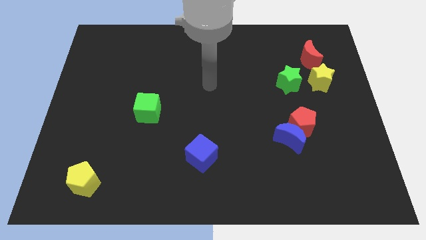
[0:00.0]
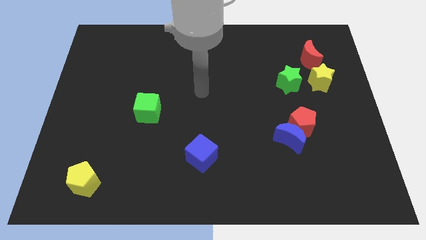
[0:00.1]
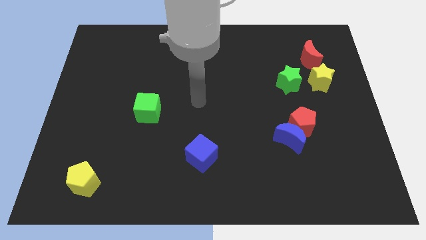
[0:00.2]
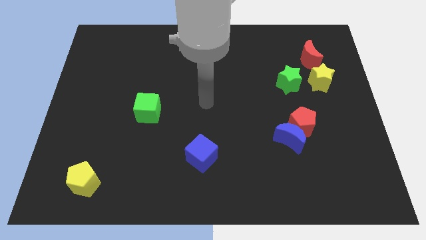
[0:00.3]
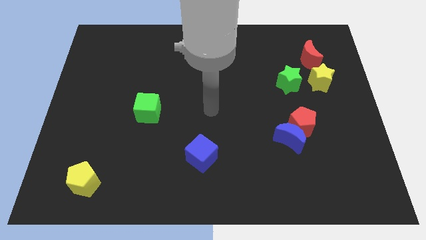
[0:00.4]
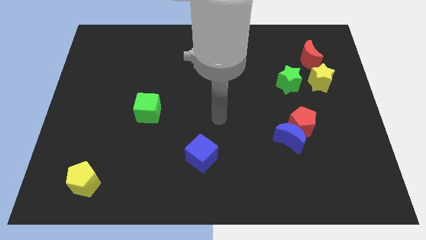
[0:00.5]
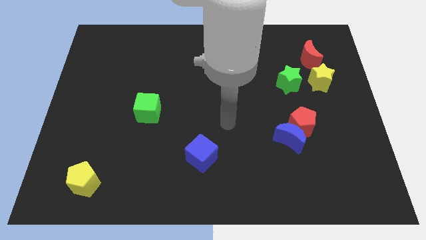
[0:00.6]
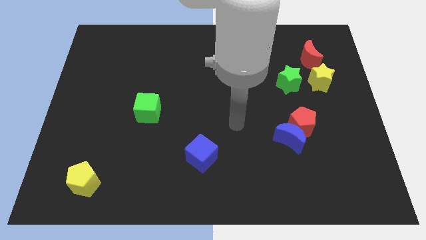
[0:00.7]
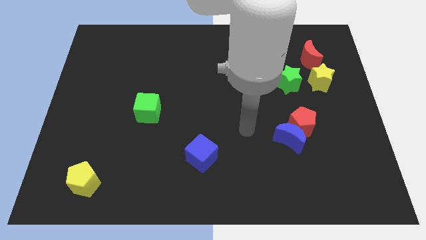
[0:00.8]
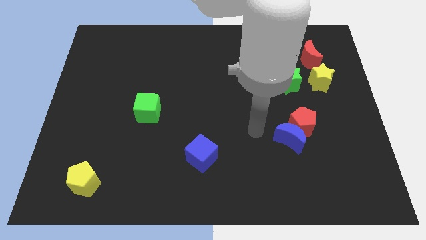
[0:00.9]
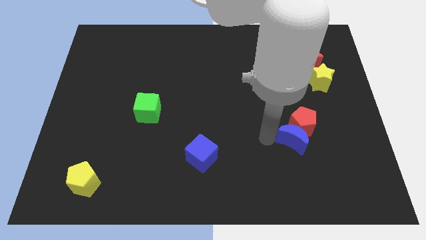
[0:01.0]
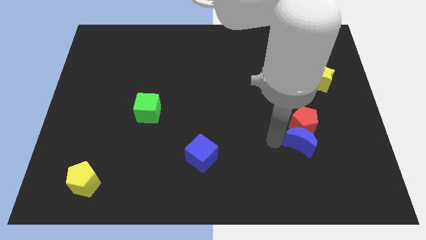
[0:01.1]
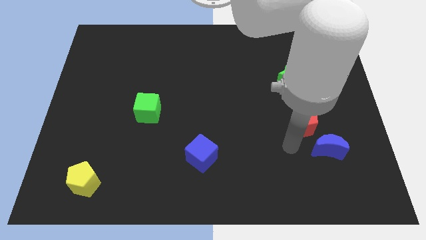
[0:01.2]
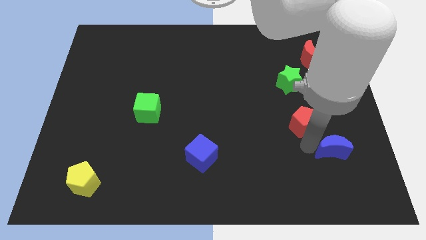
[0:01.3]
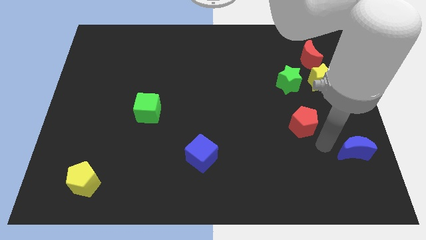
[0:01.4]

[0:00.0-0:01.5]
pull the red pentagon apart from the blue moon

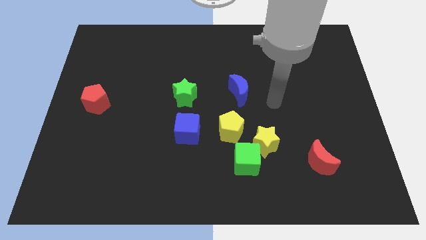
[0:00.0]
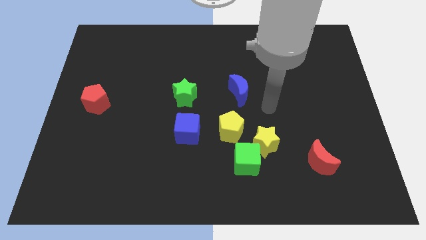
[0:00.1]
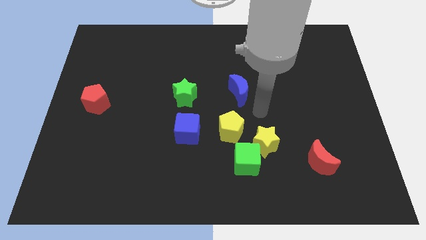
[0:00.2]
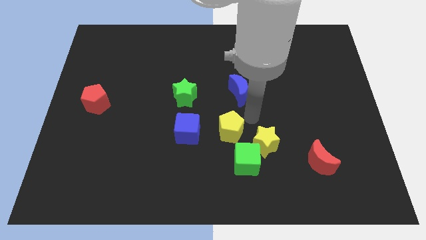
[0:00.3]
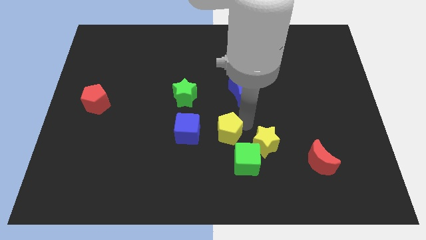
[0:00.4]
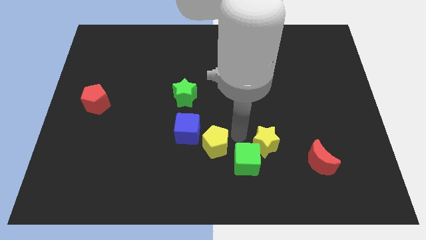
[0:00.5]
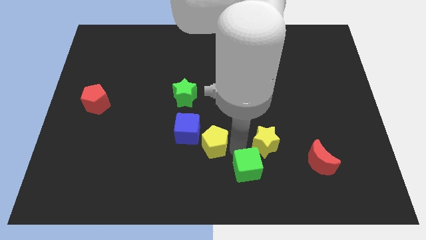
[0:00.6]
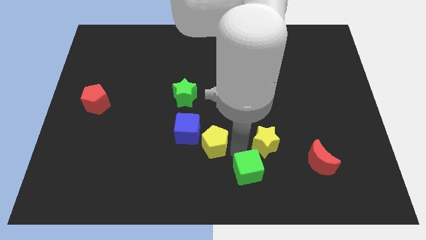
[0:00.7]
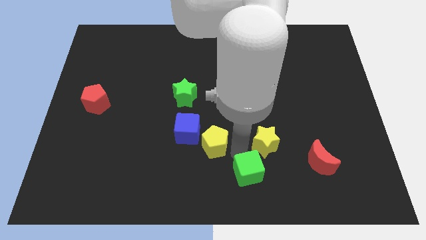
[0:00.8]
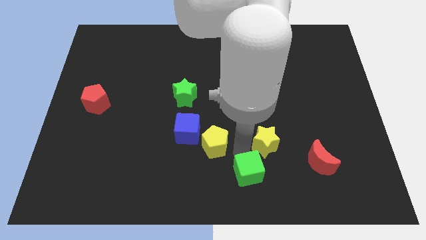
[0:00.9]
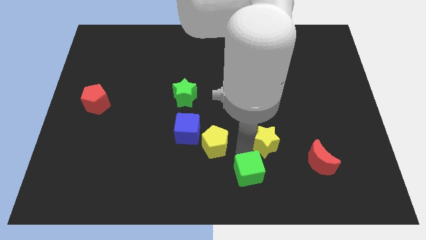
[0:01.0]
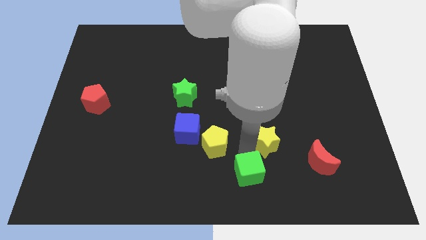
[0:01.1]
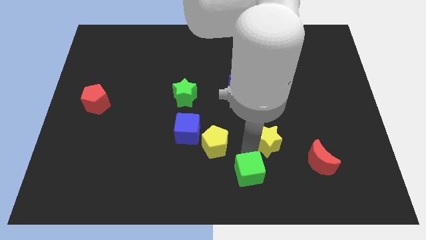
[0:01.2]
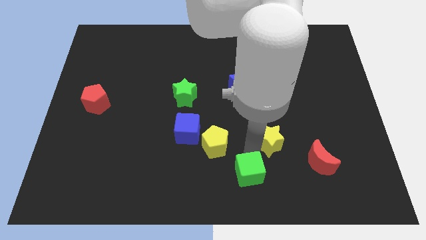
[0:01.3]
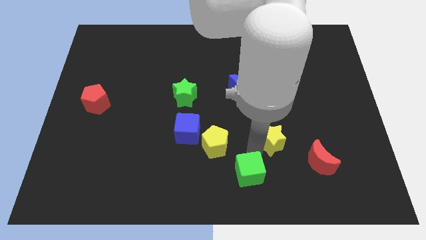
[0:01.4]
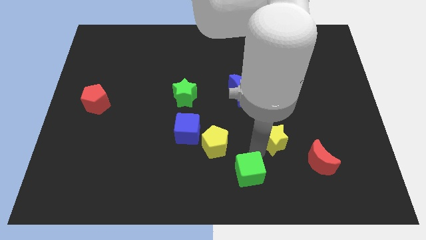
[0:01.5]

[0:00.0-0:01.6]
move the yellow star away from the green cube and yellow pentagon

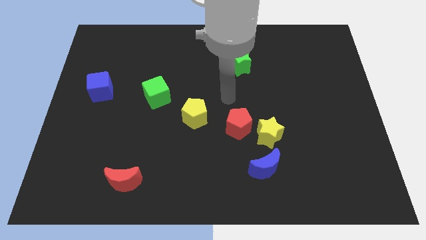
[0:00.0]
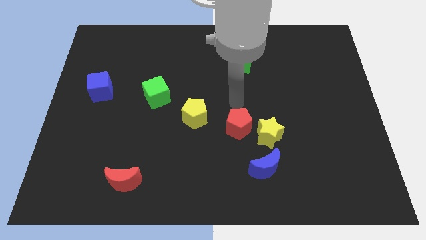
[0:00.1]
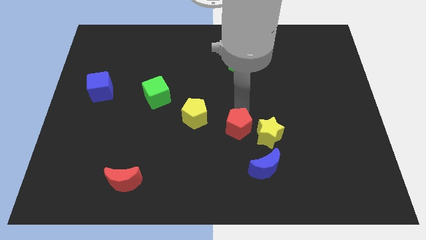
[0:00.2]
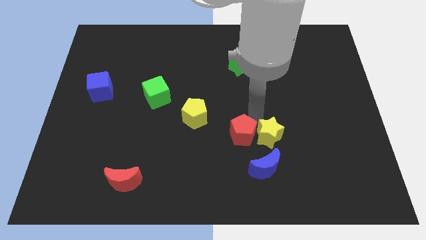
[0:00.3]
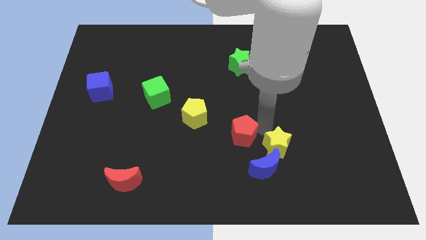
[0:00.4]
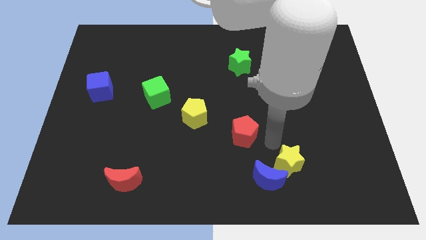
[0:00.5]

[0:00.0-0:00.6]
pull the red pentagon apart from the yellow star

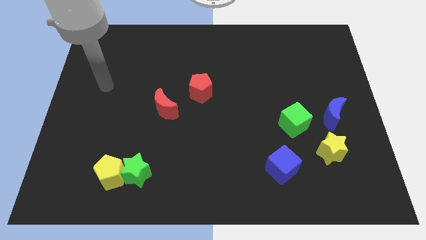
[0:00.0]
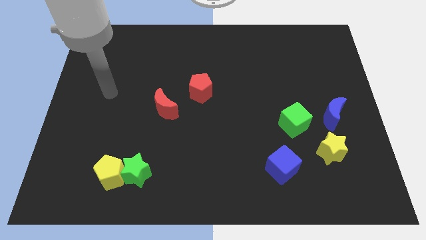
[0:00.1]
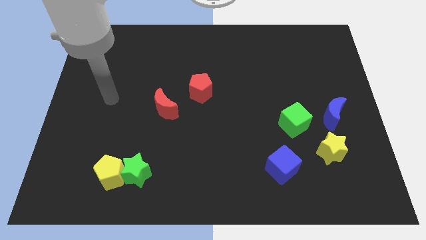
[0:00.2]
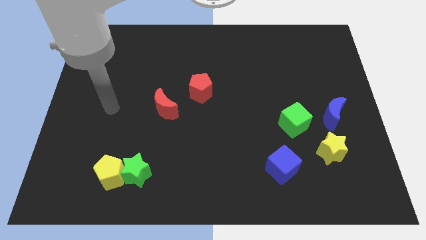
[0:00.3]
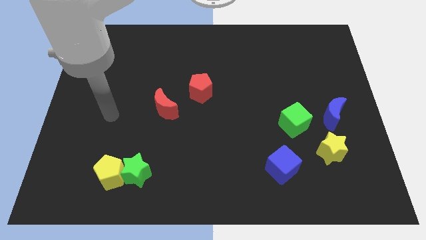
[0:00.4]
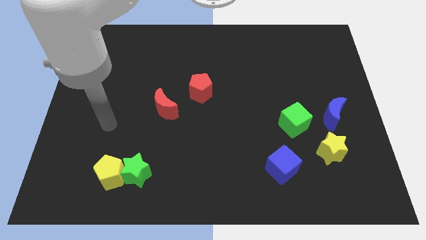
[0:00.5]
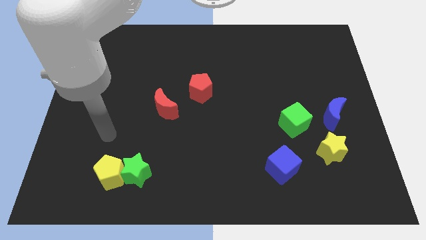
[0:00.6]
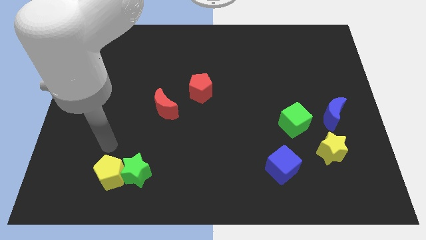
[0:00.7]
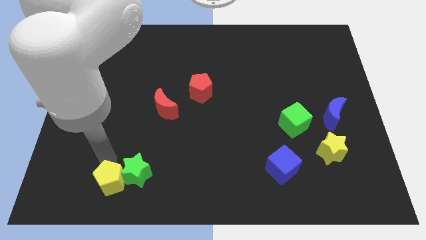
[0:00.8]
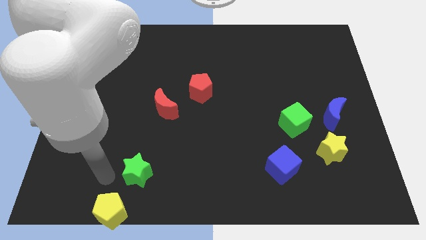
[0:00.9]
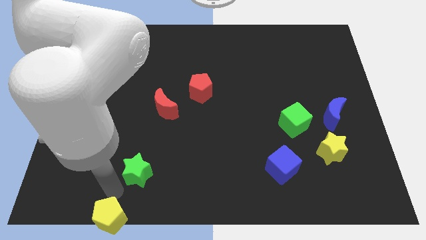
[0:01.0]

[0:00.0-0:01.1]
pull the green star apart from the yellow pentagon

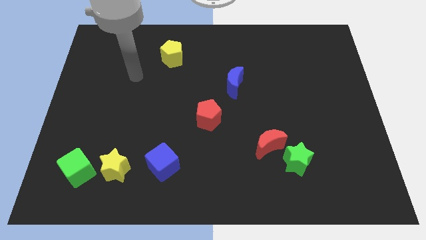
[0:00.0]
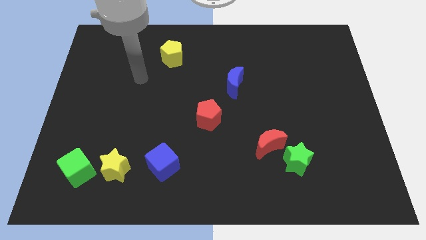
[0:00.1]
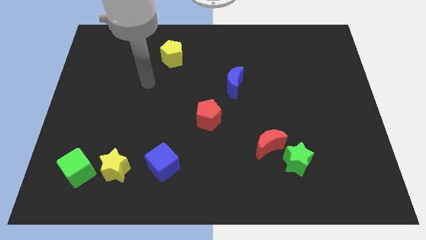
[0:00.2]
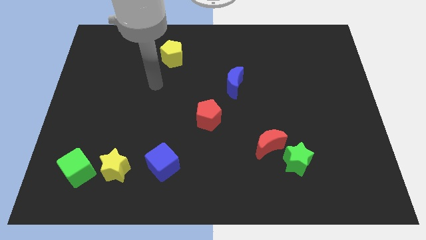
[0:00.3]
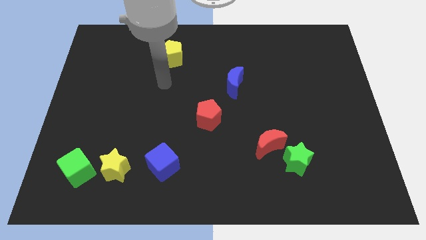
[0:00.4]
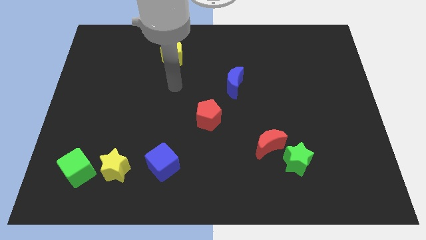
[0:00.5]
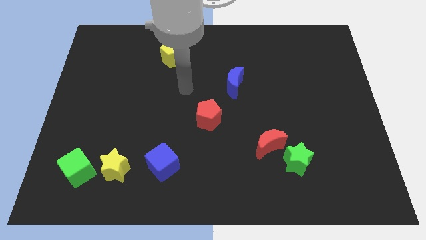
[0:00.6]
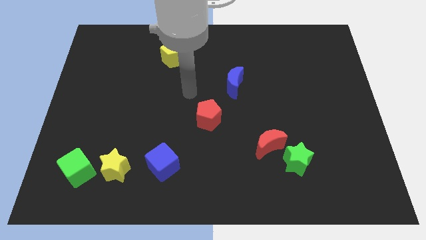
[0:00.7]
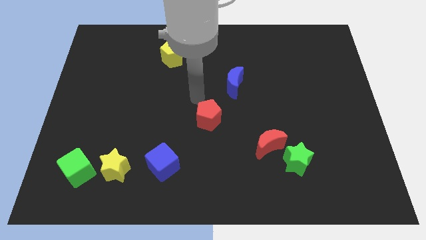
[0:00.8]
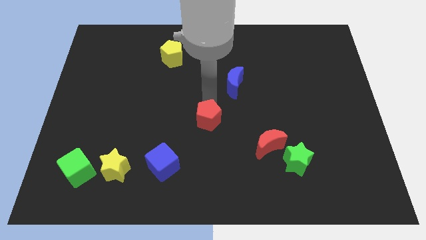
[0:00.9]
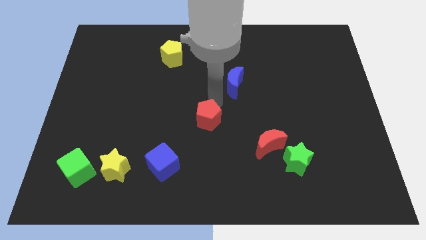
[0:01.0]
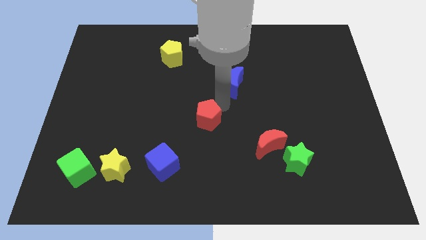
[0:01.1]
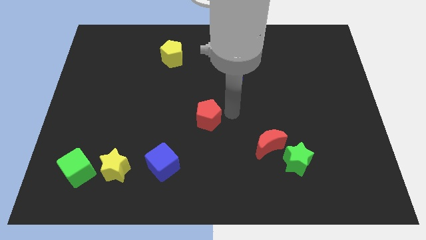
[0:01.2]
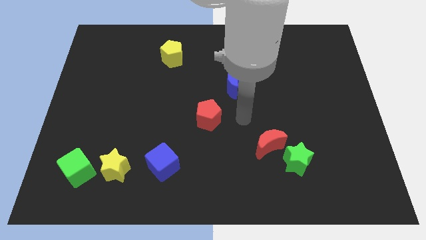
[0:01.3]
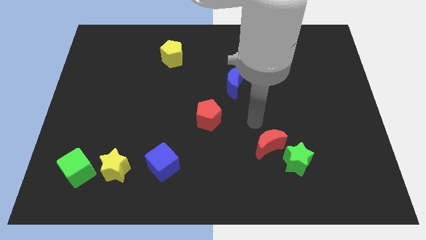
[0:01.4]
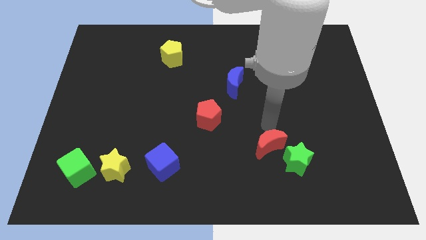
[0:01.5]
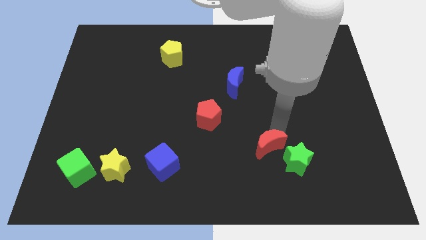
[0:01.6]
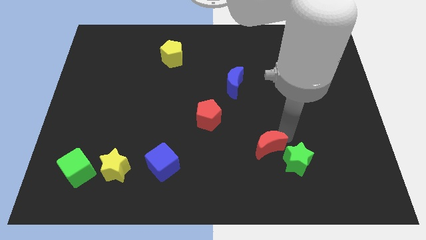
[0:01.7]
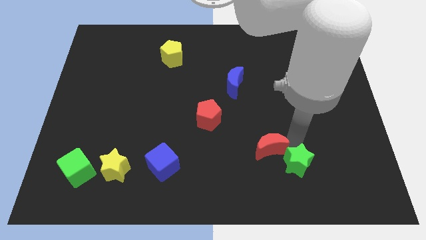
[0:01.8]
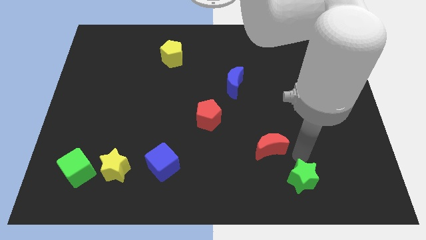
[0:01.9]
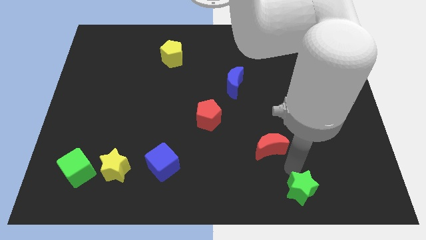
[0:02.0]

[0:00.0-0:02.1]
move the red moon away from the green star

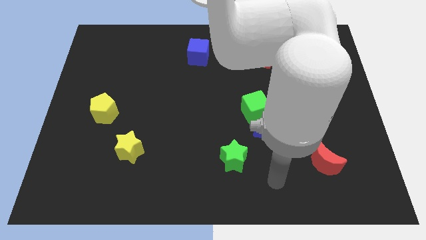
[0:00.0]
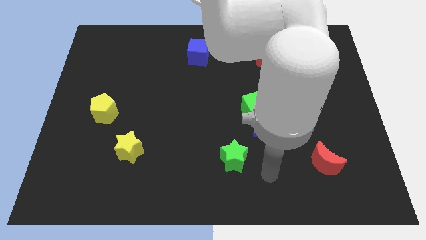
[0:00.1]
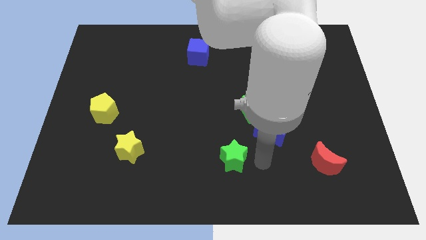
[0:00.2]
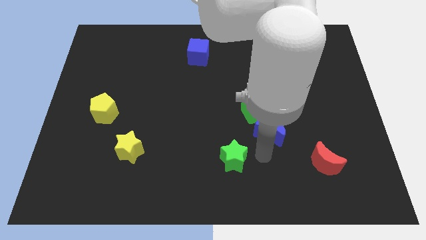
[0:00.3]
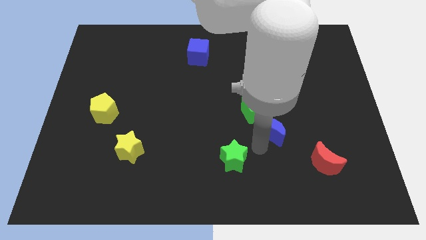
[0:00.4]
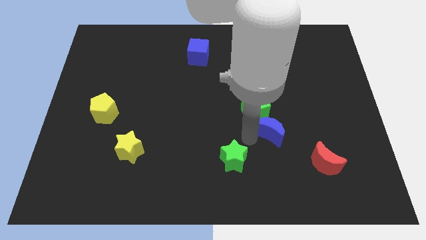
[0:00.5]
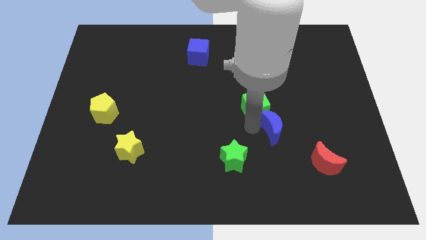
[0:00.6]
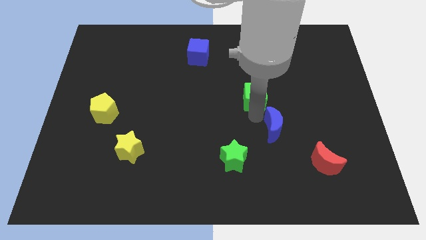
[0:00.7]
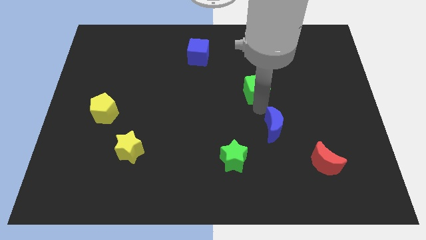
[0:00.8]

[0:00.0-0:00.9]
separate the blue moon from the green cube

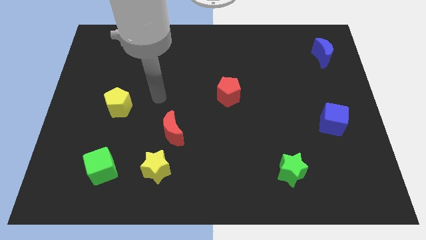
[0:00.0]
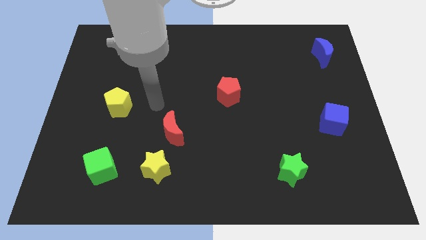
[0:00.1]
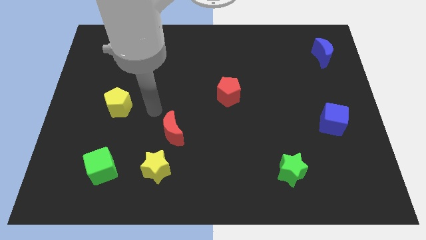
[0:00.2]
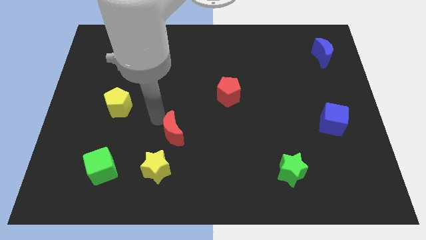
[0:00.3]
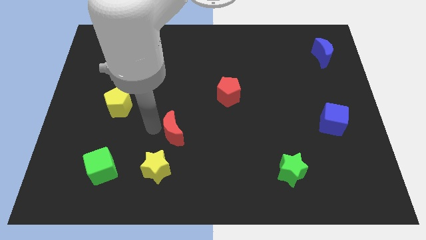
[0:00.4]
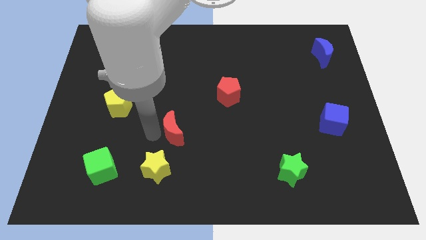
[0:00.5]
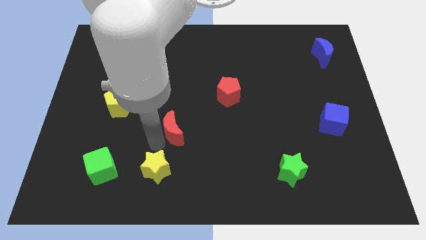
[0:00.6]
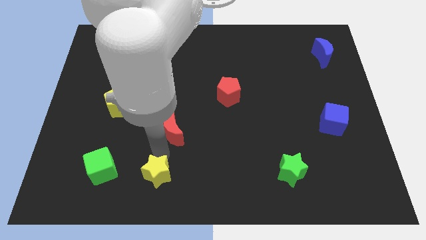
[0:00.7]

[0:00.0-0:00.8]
separate the red moon from the yellow star

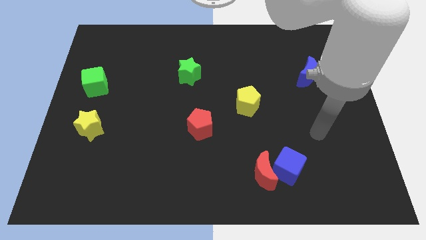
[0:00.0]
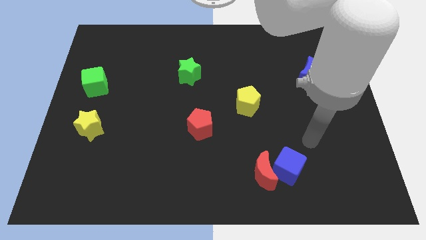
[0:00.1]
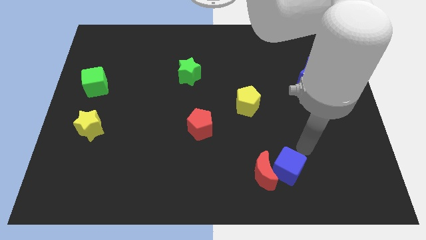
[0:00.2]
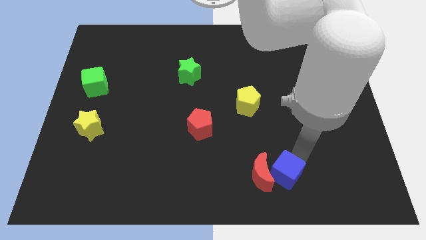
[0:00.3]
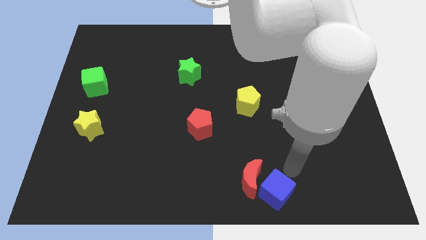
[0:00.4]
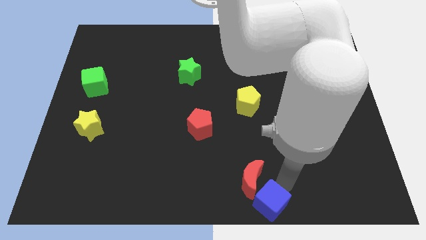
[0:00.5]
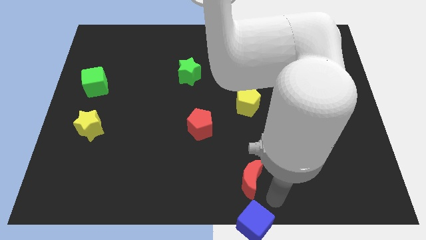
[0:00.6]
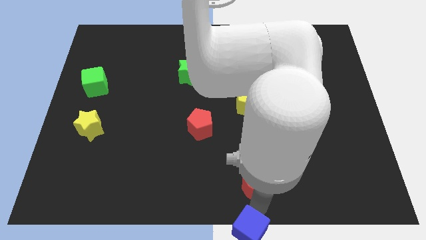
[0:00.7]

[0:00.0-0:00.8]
move the red moon away from the blue cube
